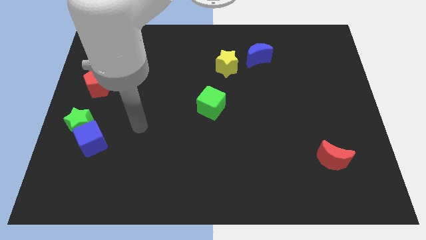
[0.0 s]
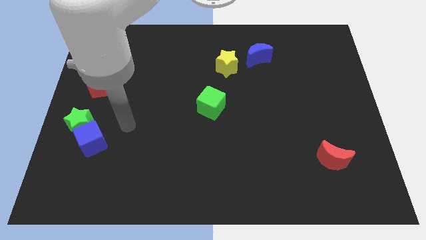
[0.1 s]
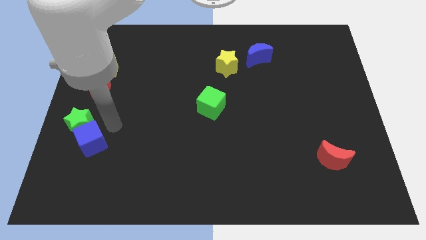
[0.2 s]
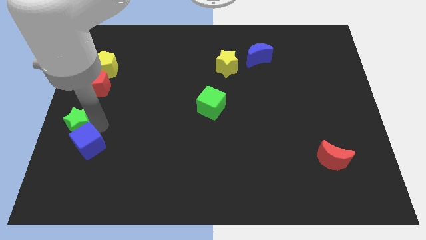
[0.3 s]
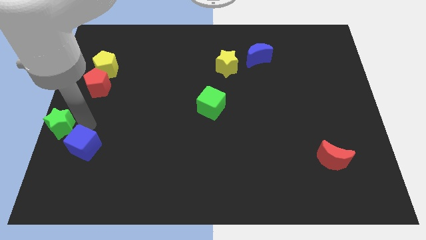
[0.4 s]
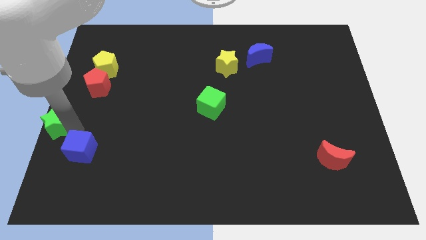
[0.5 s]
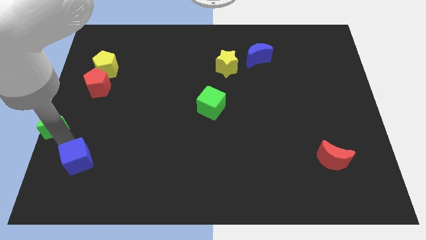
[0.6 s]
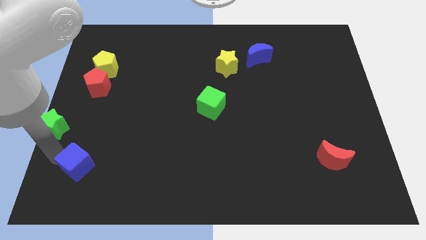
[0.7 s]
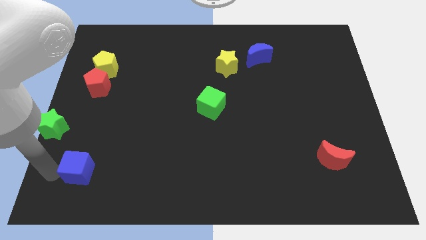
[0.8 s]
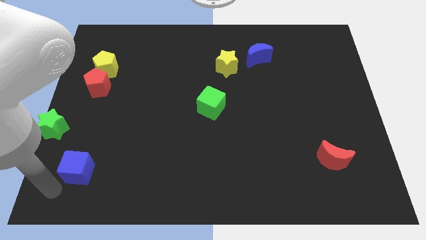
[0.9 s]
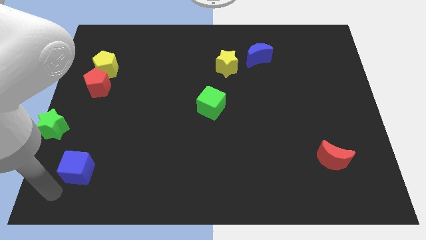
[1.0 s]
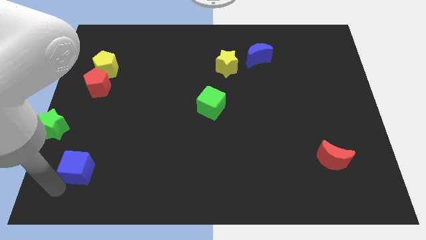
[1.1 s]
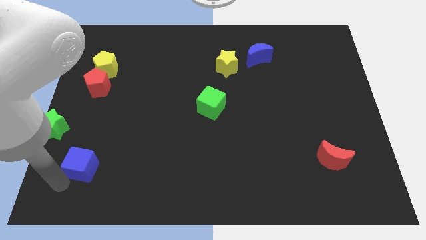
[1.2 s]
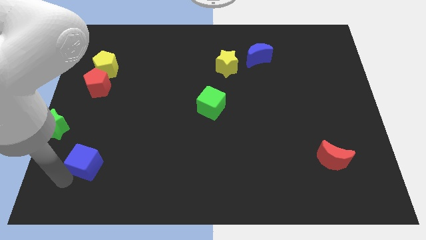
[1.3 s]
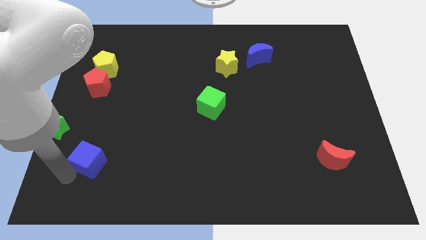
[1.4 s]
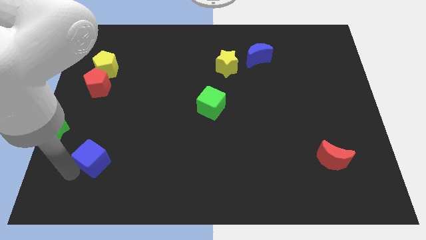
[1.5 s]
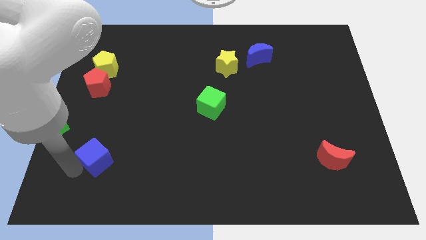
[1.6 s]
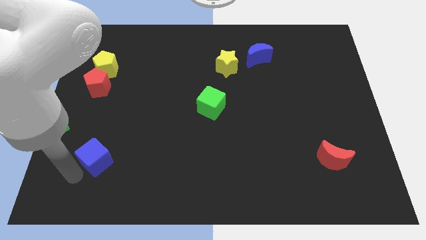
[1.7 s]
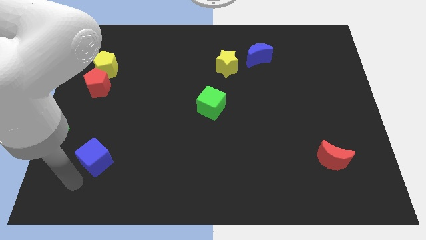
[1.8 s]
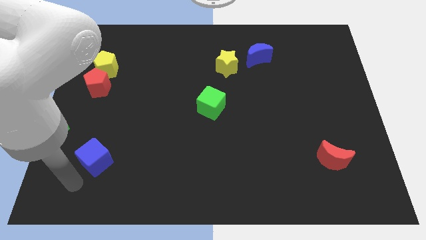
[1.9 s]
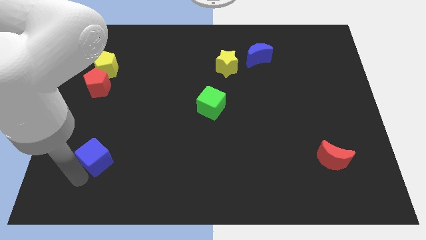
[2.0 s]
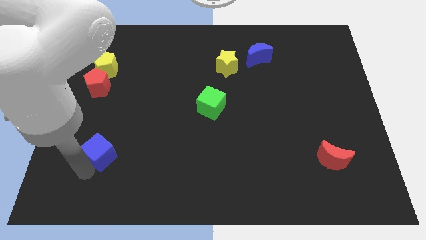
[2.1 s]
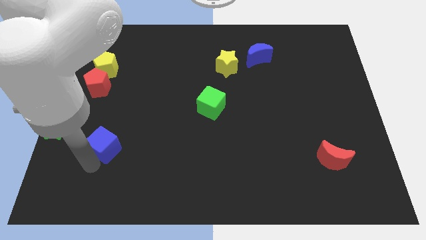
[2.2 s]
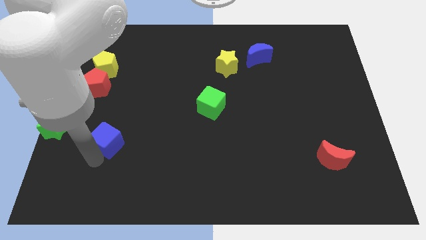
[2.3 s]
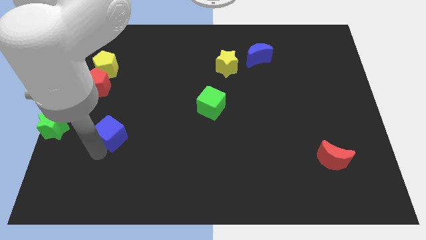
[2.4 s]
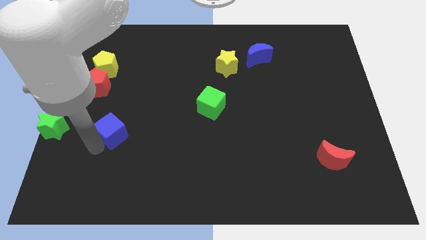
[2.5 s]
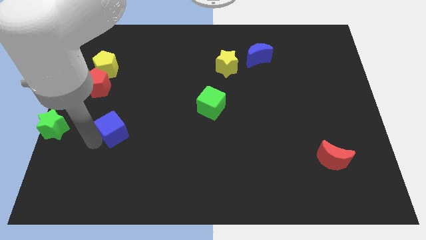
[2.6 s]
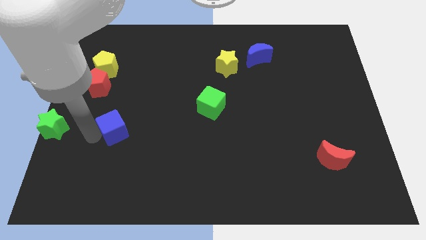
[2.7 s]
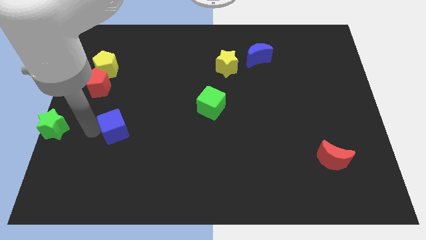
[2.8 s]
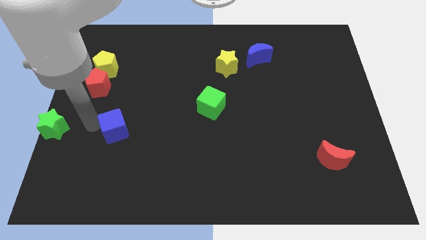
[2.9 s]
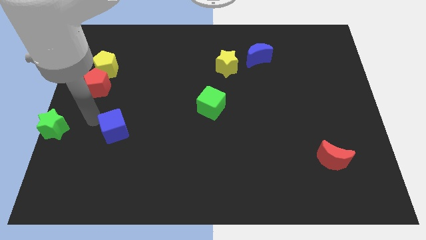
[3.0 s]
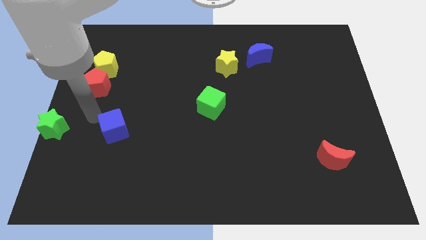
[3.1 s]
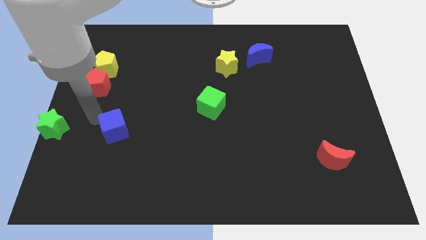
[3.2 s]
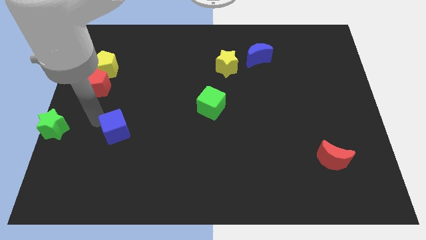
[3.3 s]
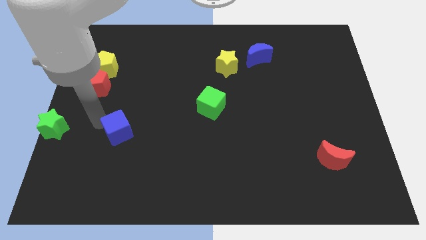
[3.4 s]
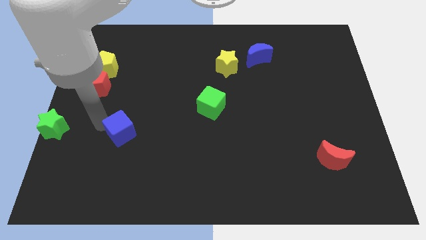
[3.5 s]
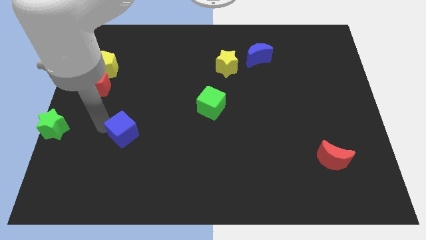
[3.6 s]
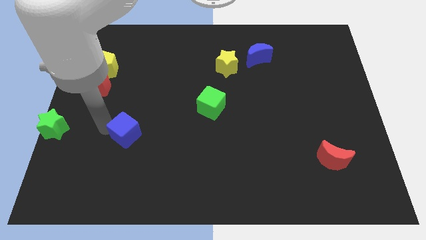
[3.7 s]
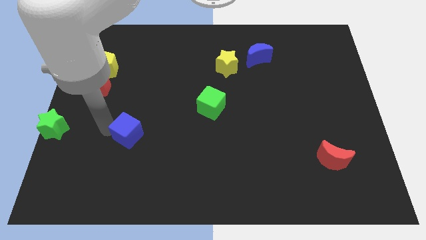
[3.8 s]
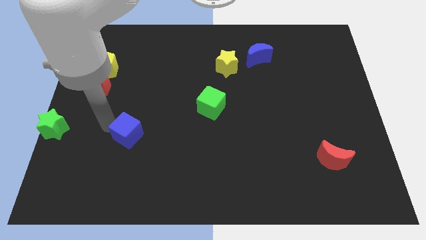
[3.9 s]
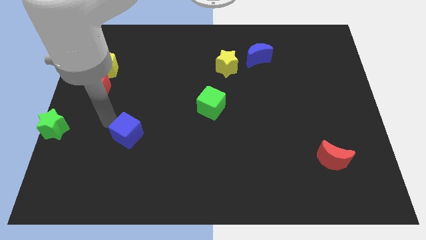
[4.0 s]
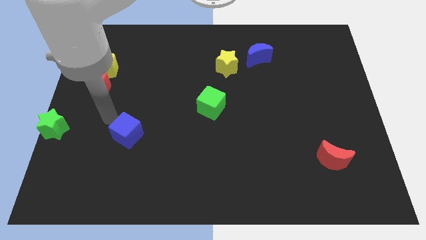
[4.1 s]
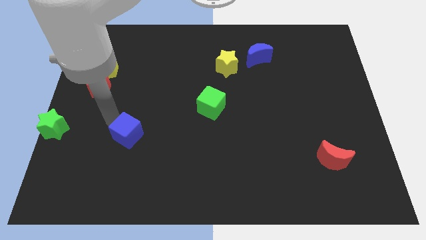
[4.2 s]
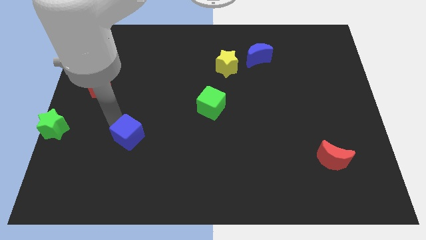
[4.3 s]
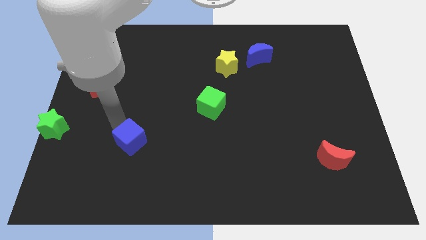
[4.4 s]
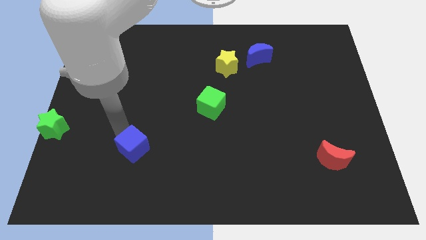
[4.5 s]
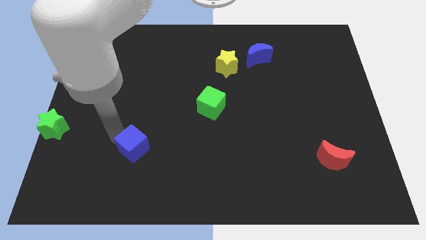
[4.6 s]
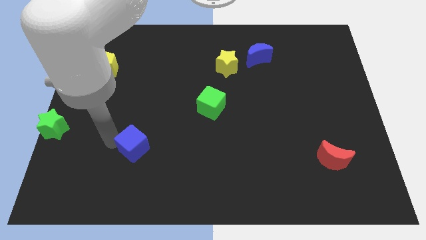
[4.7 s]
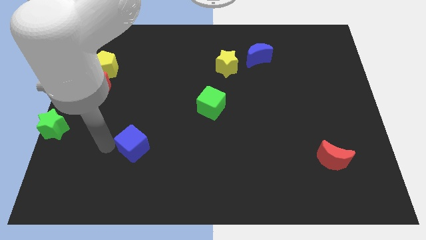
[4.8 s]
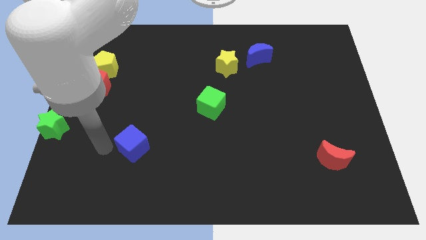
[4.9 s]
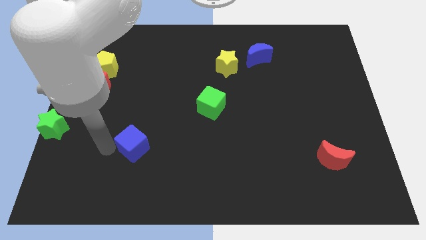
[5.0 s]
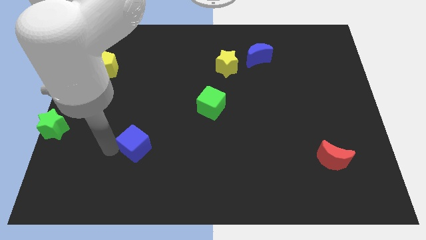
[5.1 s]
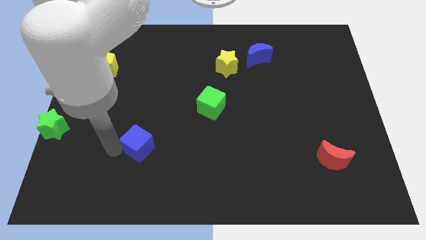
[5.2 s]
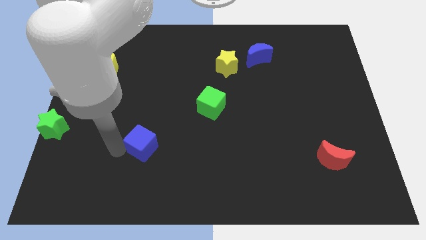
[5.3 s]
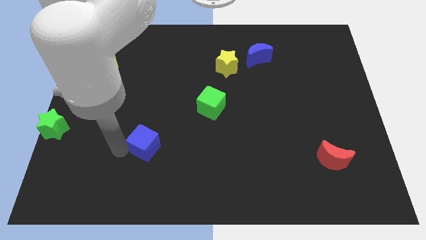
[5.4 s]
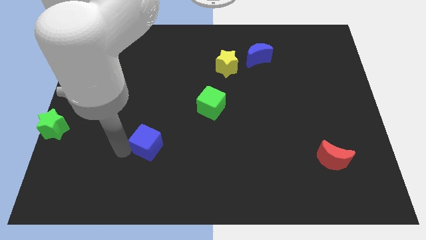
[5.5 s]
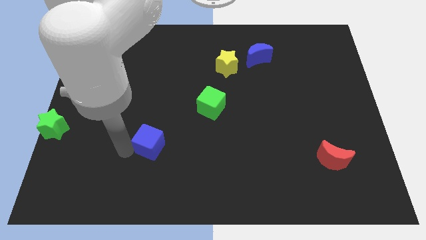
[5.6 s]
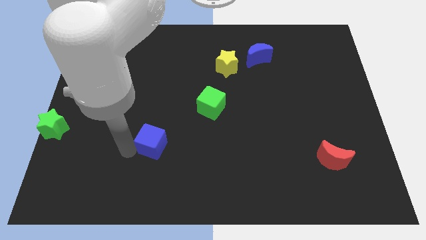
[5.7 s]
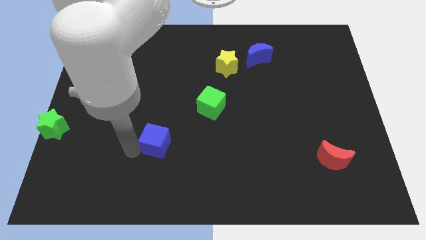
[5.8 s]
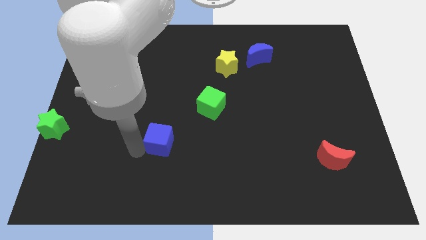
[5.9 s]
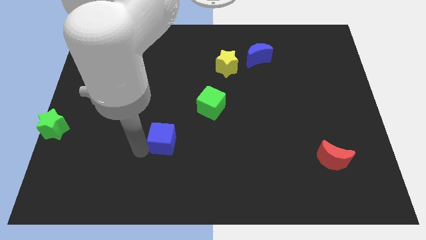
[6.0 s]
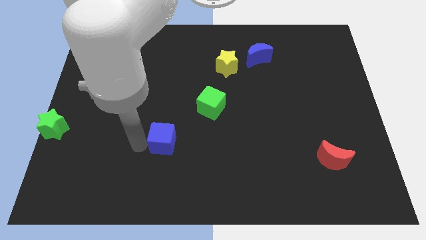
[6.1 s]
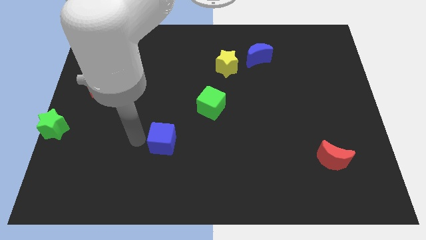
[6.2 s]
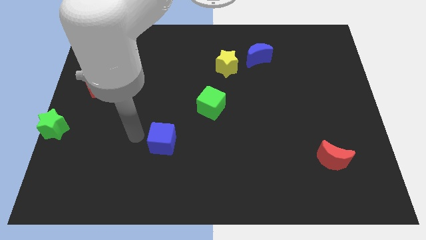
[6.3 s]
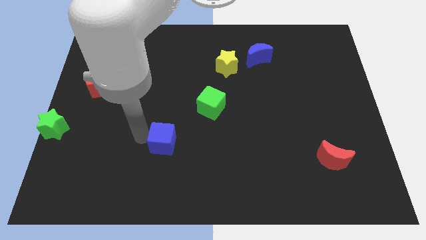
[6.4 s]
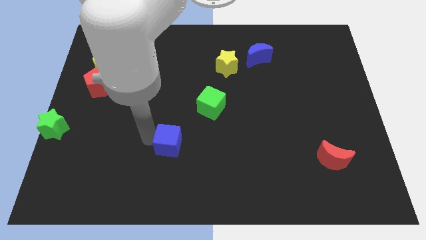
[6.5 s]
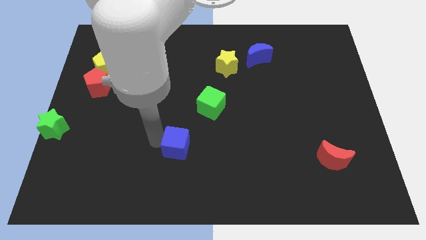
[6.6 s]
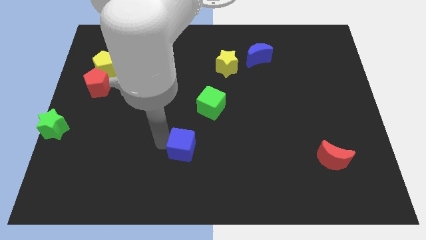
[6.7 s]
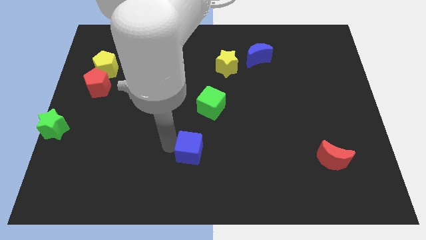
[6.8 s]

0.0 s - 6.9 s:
move the blue cube to the bottom of the green cube

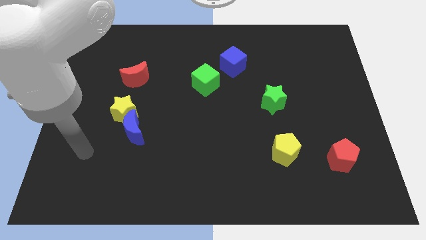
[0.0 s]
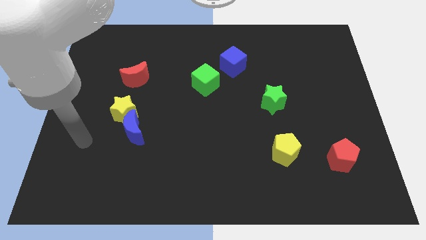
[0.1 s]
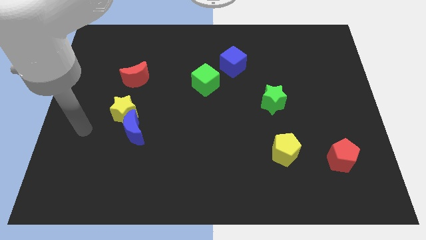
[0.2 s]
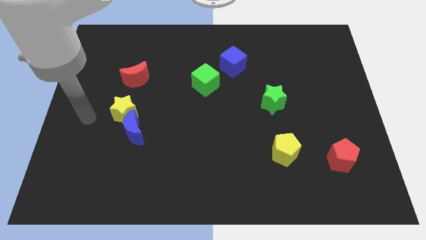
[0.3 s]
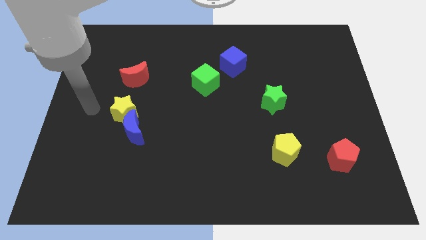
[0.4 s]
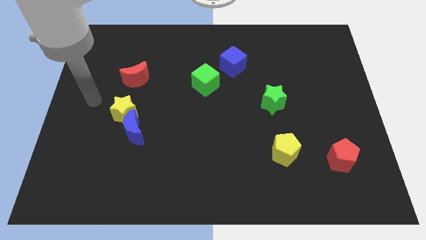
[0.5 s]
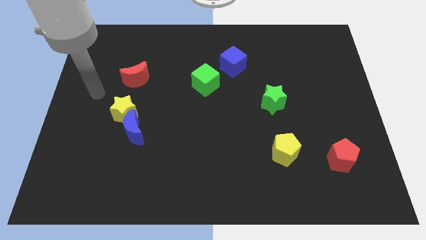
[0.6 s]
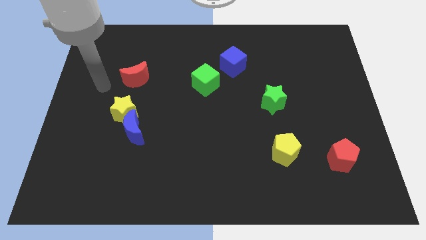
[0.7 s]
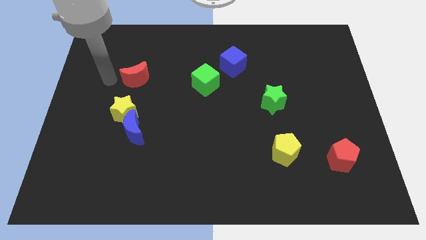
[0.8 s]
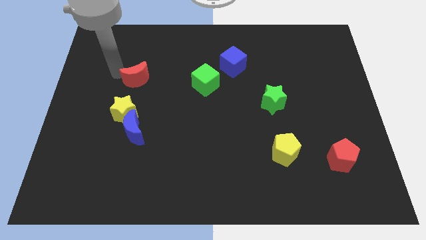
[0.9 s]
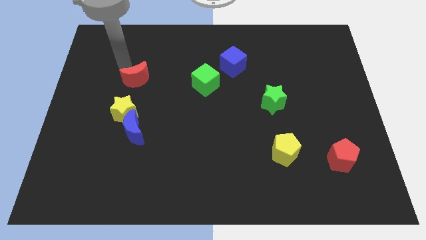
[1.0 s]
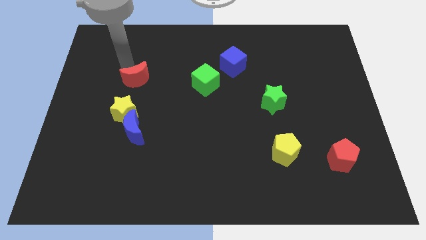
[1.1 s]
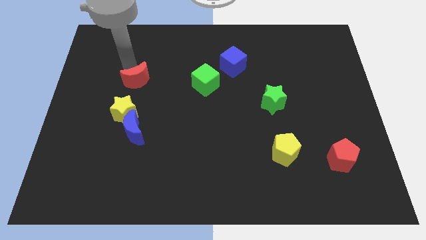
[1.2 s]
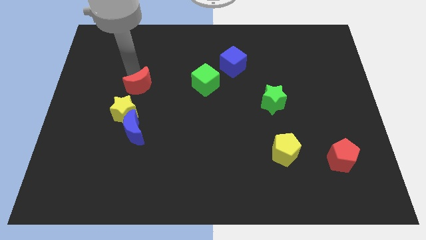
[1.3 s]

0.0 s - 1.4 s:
move the red moon diagonally up and to the right of the yellow star

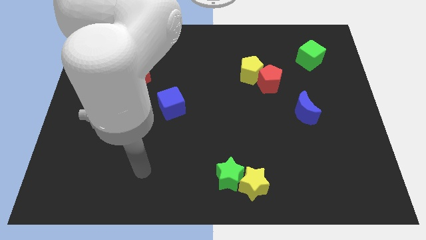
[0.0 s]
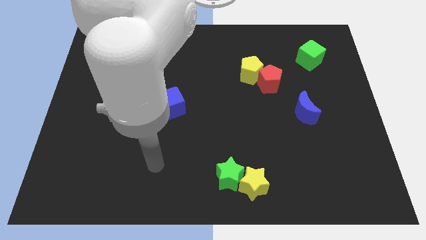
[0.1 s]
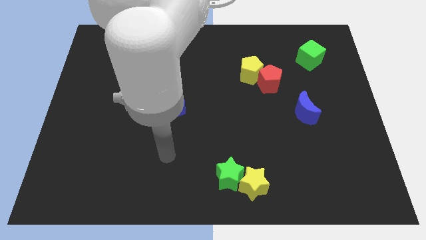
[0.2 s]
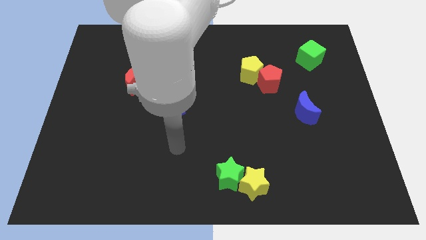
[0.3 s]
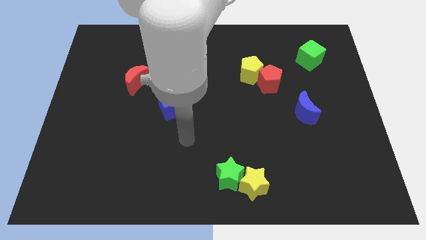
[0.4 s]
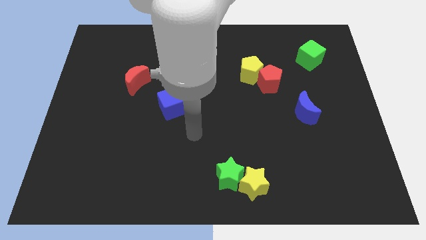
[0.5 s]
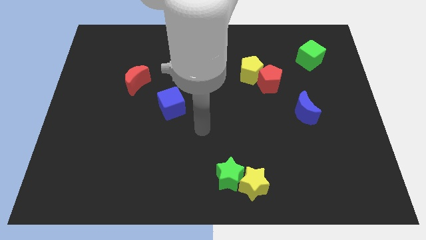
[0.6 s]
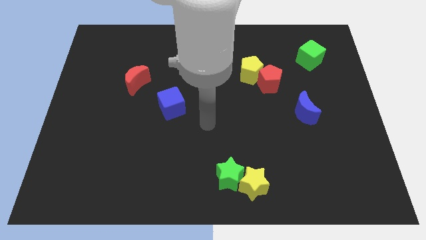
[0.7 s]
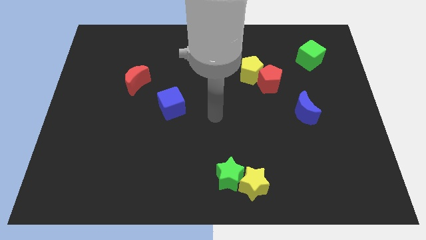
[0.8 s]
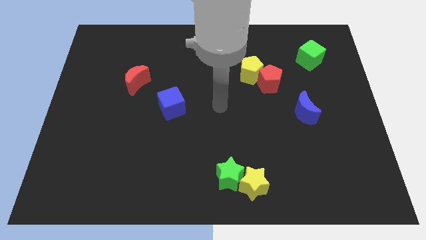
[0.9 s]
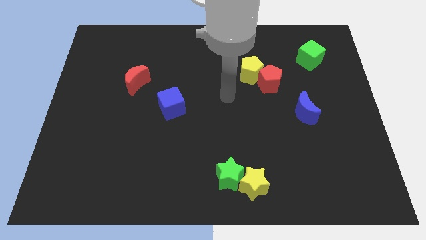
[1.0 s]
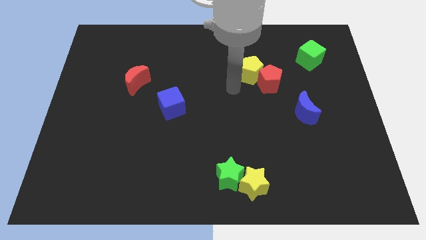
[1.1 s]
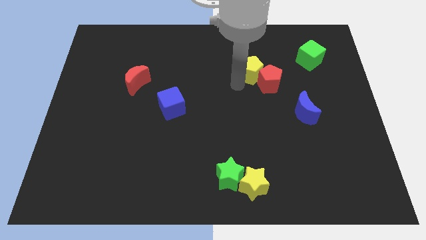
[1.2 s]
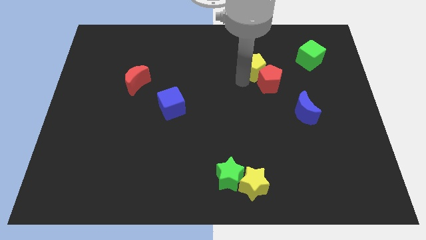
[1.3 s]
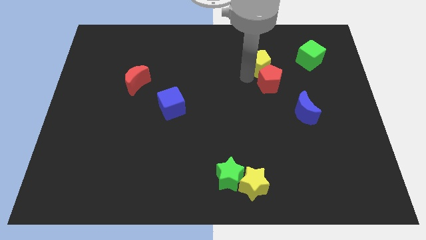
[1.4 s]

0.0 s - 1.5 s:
put the yellow pentagon just left of the green cube
